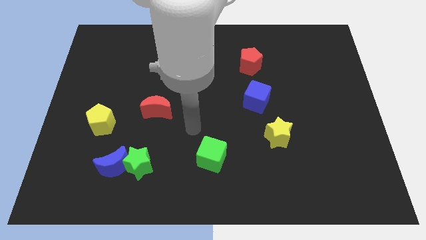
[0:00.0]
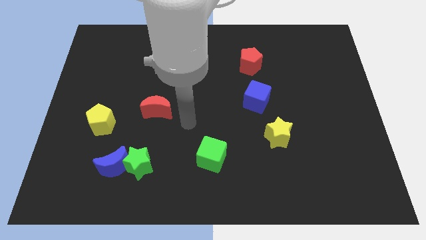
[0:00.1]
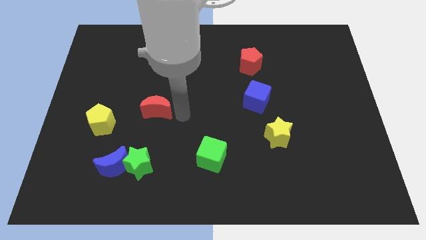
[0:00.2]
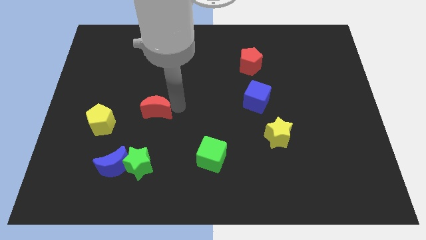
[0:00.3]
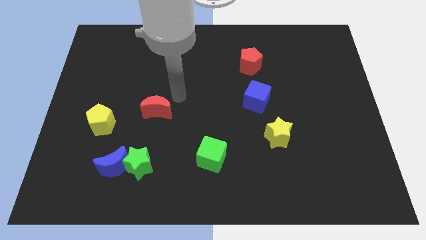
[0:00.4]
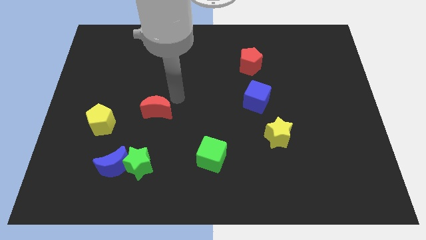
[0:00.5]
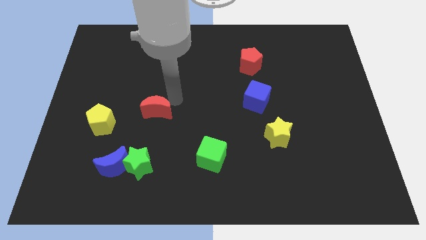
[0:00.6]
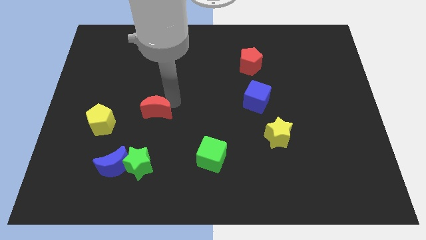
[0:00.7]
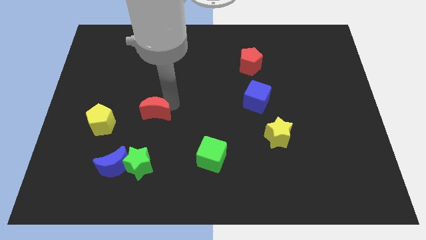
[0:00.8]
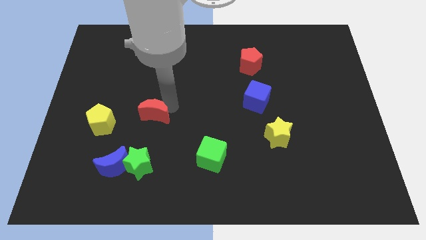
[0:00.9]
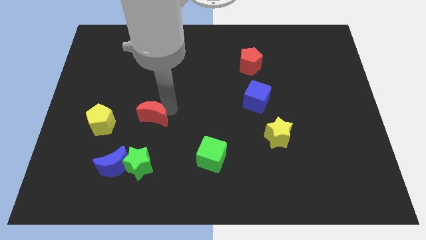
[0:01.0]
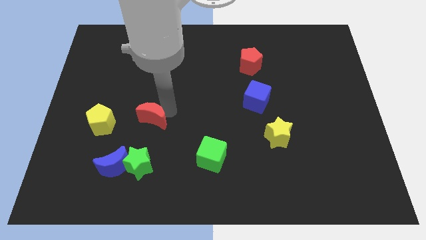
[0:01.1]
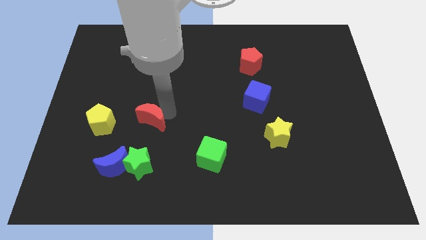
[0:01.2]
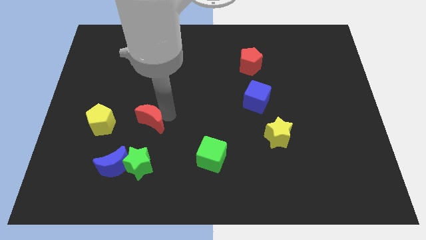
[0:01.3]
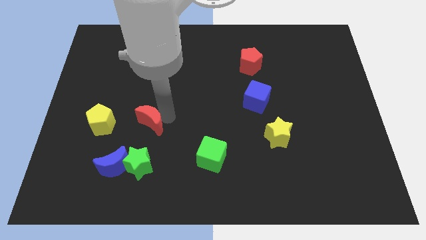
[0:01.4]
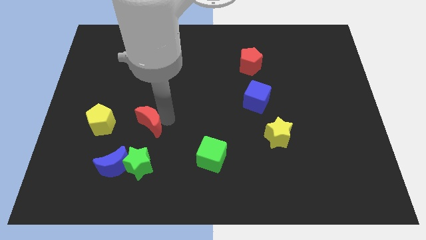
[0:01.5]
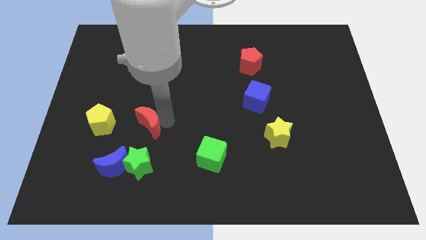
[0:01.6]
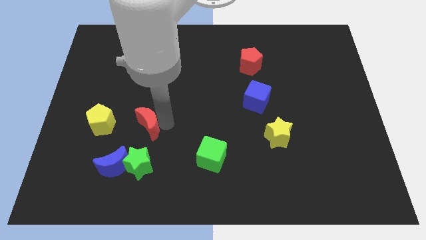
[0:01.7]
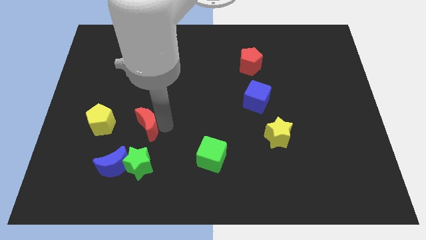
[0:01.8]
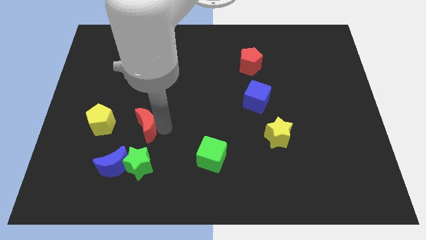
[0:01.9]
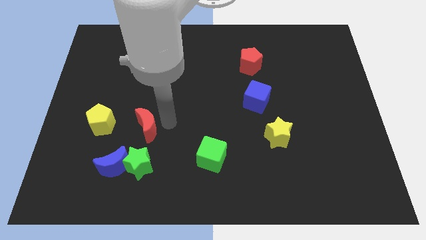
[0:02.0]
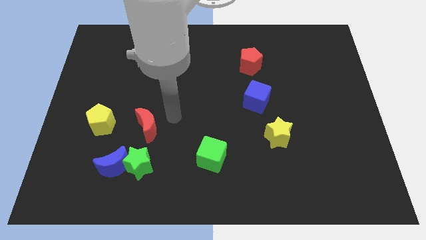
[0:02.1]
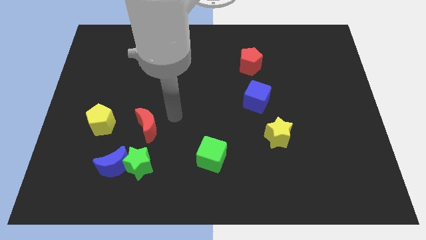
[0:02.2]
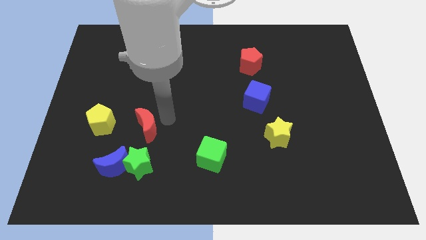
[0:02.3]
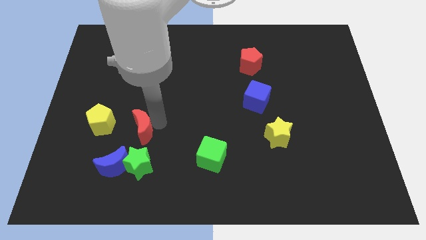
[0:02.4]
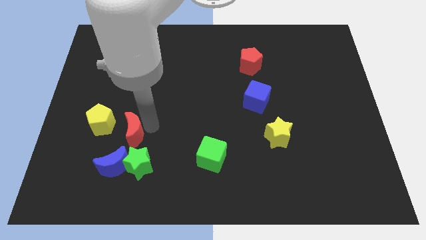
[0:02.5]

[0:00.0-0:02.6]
slightly push the red moon downwards and to the left

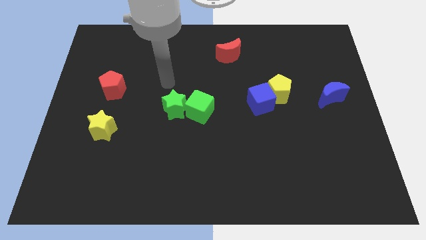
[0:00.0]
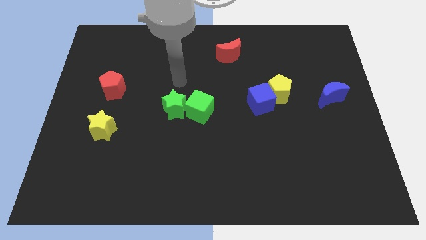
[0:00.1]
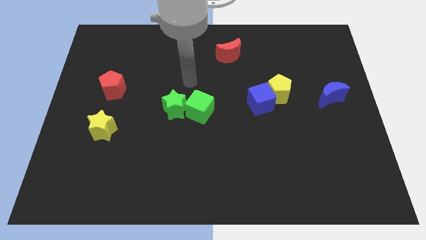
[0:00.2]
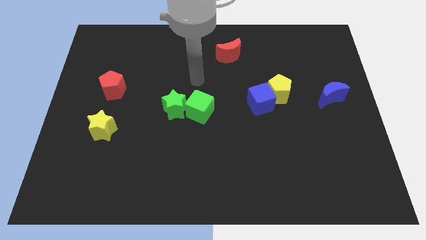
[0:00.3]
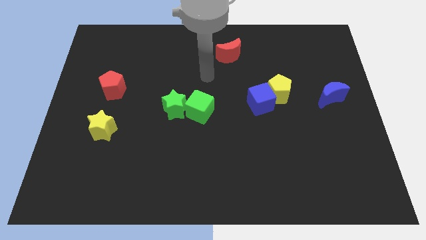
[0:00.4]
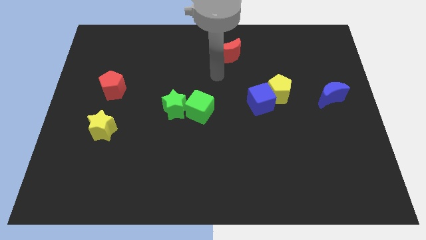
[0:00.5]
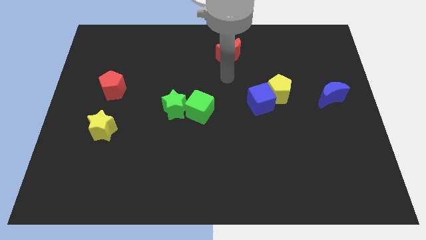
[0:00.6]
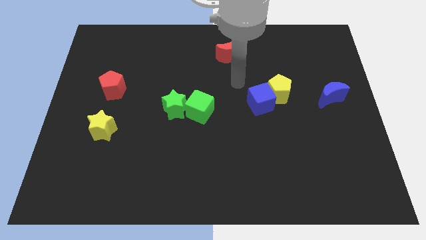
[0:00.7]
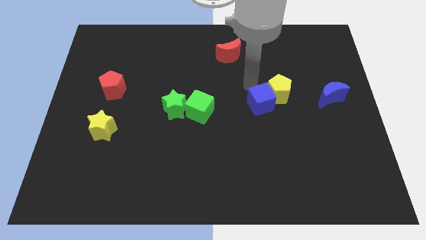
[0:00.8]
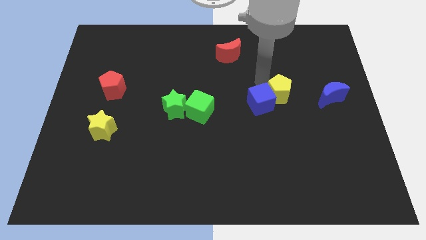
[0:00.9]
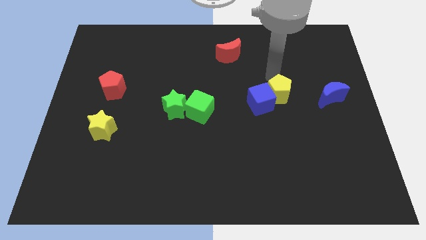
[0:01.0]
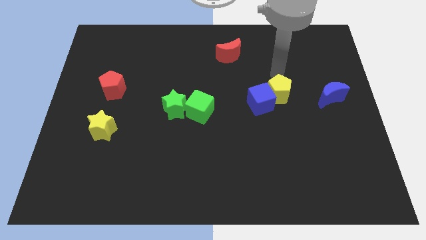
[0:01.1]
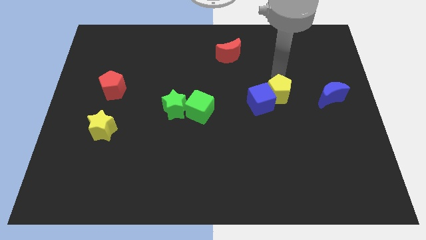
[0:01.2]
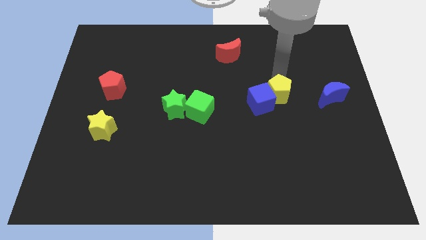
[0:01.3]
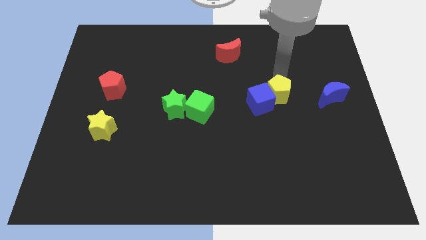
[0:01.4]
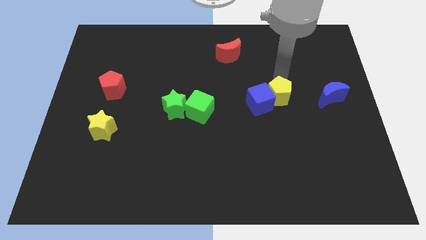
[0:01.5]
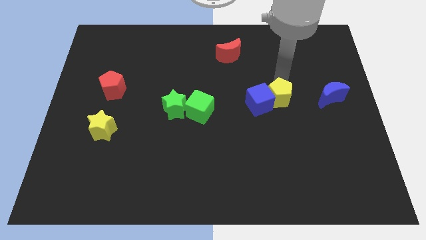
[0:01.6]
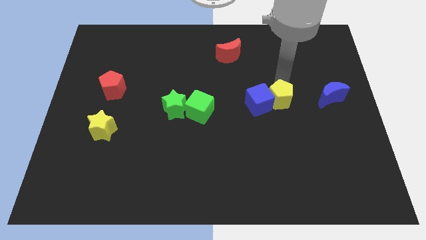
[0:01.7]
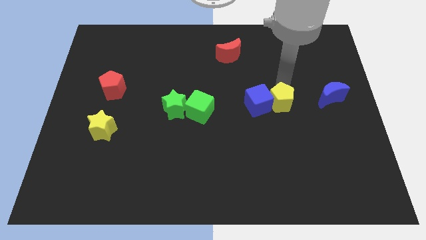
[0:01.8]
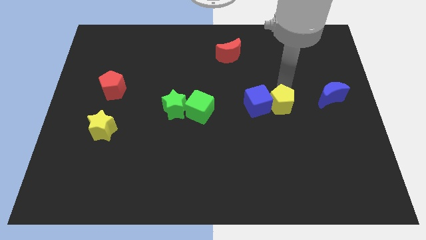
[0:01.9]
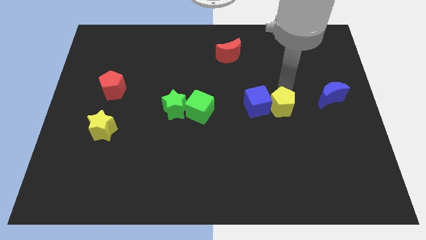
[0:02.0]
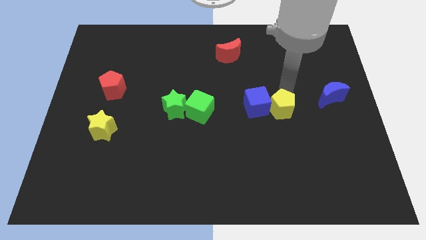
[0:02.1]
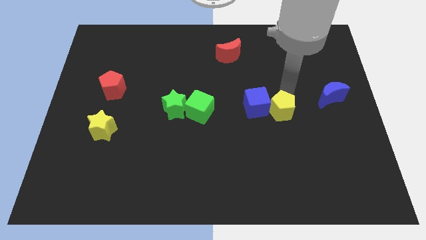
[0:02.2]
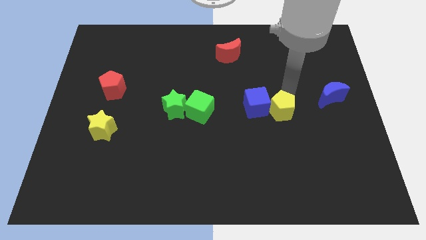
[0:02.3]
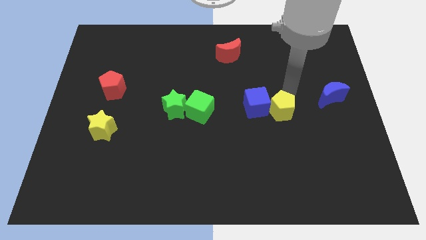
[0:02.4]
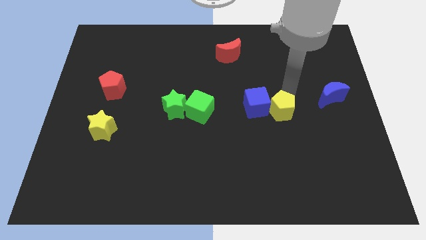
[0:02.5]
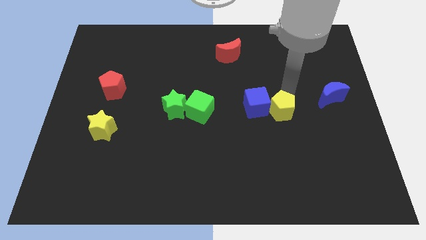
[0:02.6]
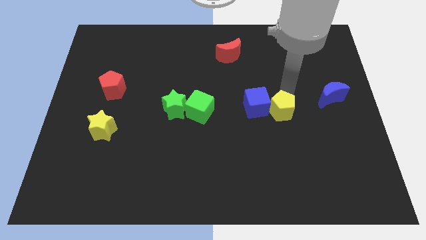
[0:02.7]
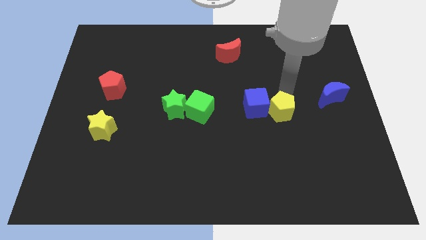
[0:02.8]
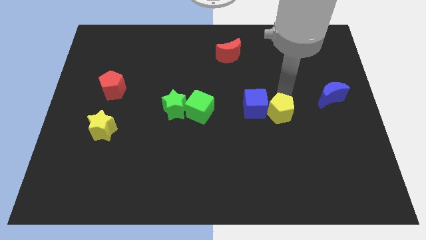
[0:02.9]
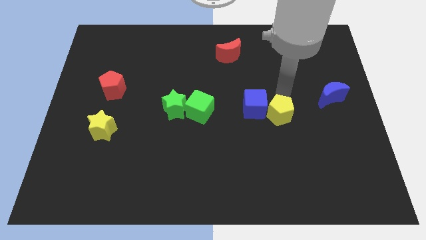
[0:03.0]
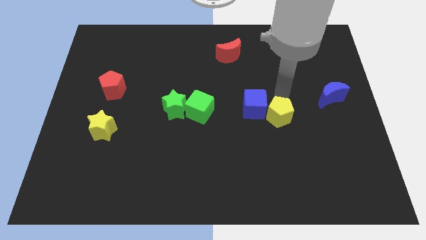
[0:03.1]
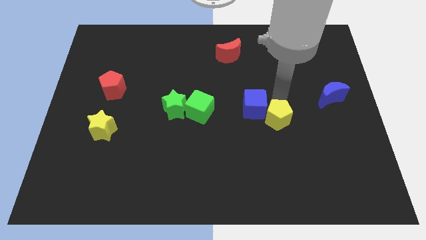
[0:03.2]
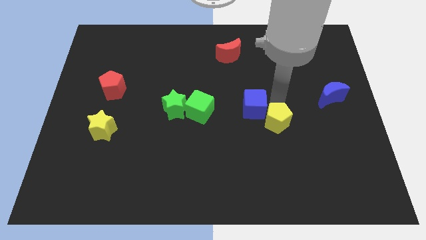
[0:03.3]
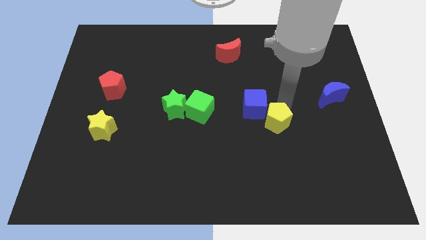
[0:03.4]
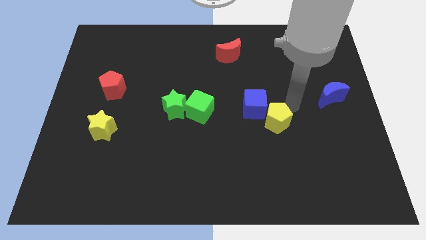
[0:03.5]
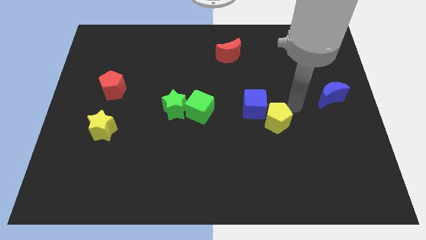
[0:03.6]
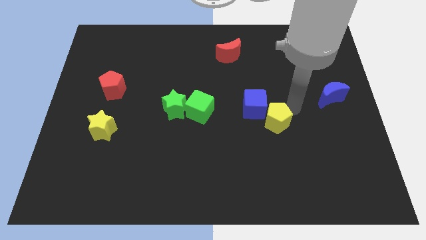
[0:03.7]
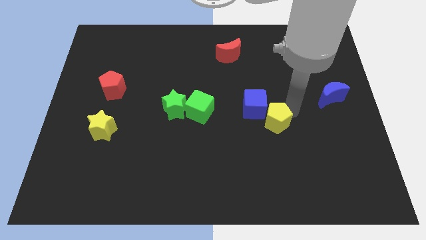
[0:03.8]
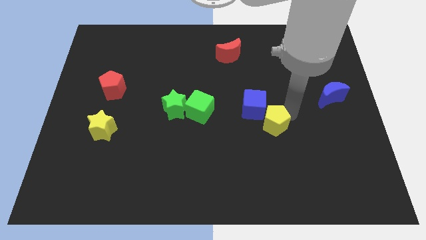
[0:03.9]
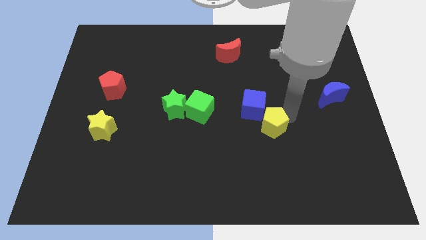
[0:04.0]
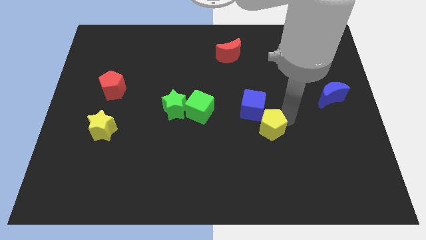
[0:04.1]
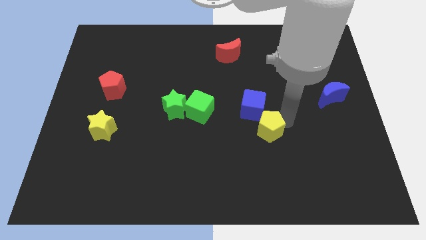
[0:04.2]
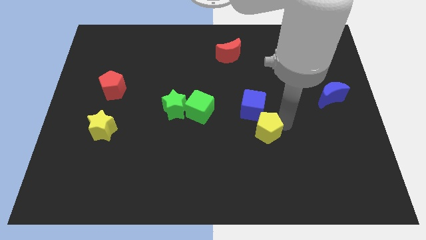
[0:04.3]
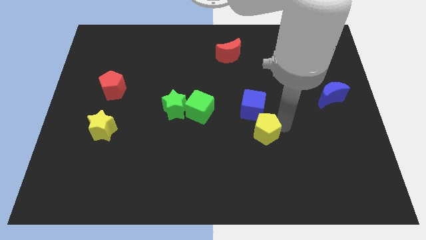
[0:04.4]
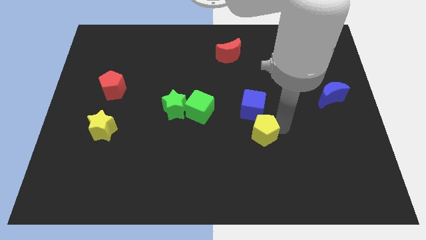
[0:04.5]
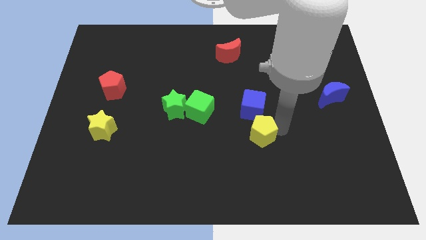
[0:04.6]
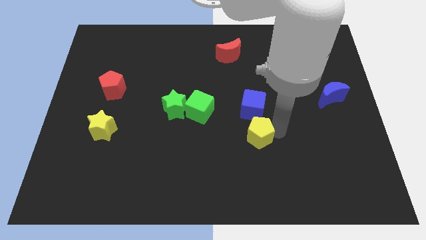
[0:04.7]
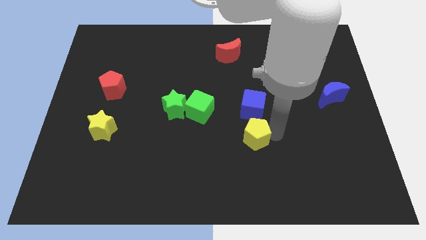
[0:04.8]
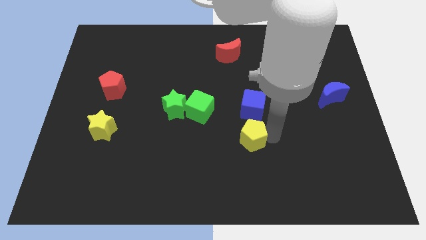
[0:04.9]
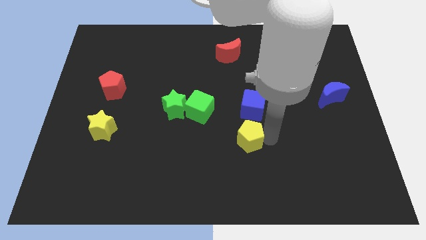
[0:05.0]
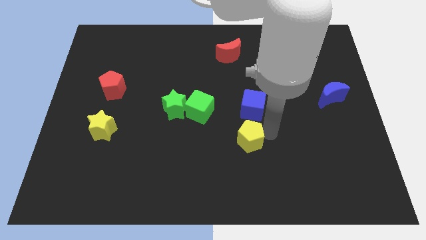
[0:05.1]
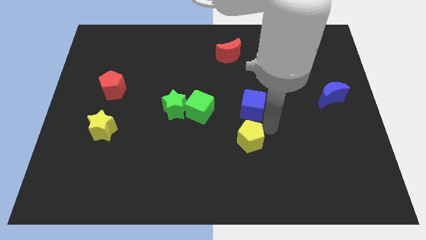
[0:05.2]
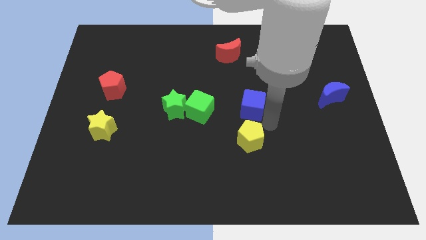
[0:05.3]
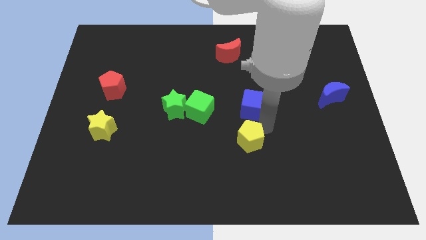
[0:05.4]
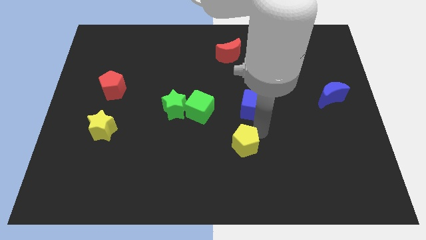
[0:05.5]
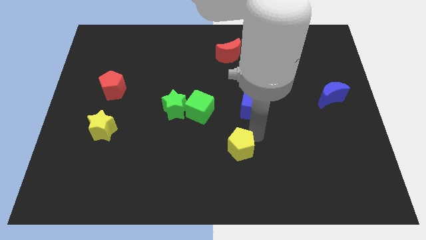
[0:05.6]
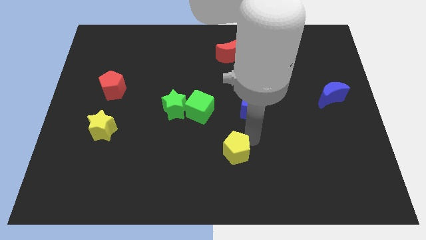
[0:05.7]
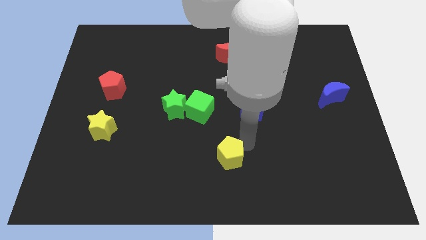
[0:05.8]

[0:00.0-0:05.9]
push the yellow pentagon downwards and then left
